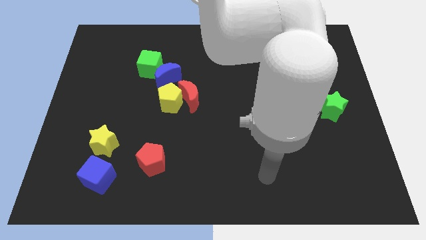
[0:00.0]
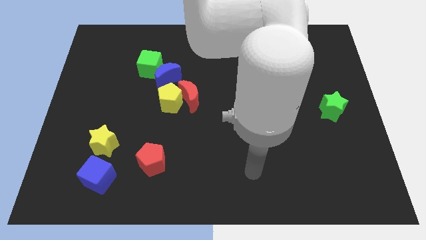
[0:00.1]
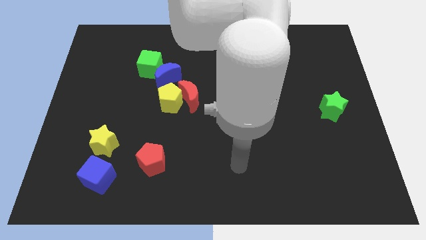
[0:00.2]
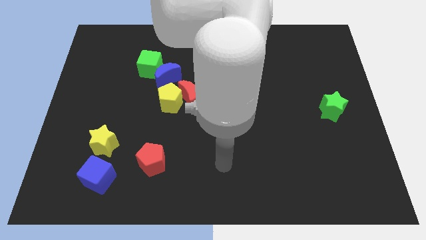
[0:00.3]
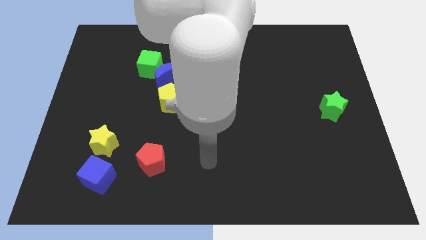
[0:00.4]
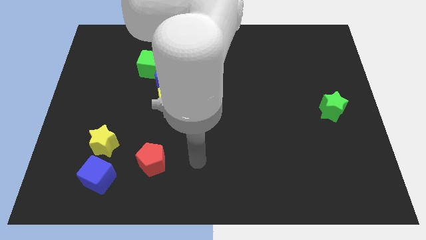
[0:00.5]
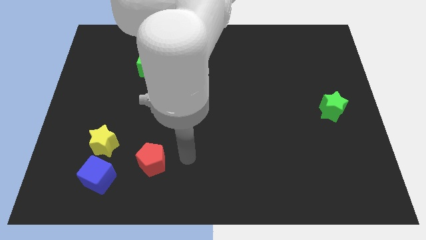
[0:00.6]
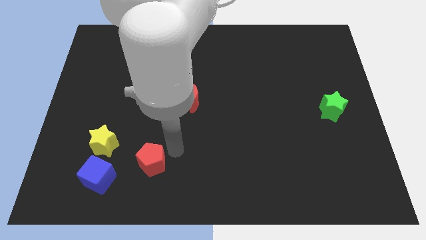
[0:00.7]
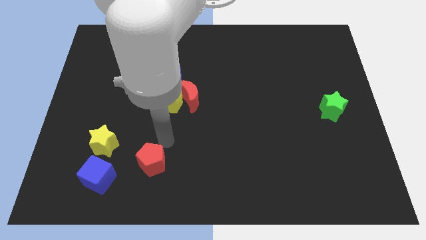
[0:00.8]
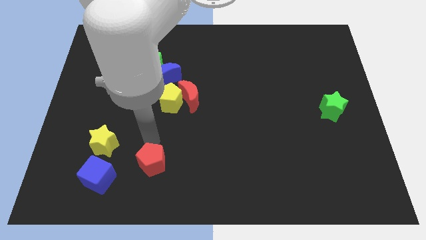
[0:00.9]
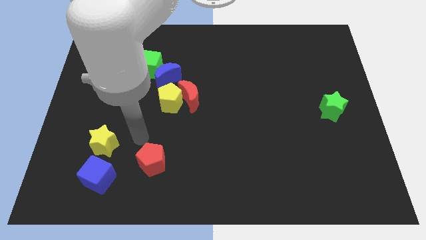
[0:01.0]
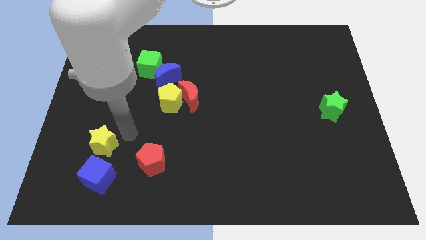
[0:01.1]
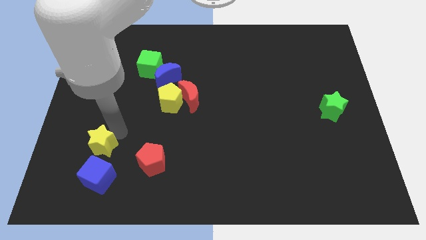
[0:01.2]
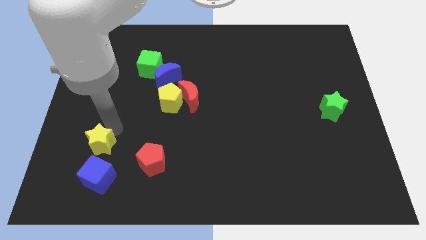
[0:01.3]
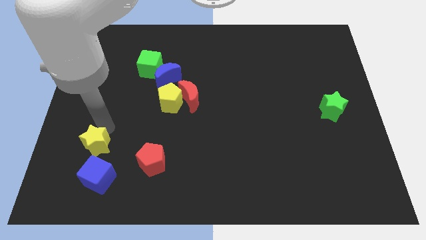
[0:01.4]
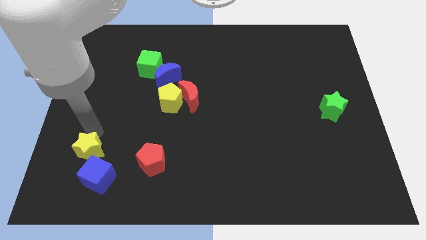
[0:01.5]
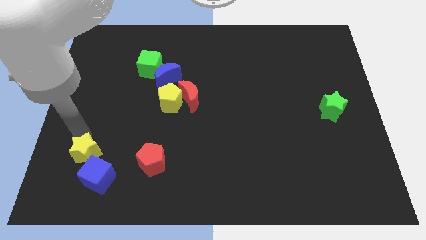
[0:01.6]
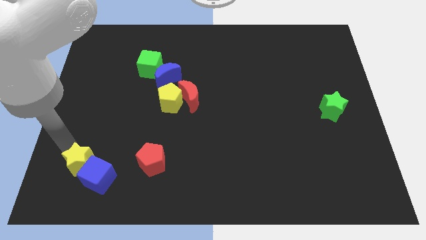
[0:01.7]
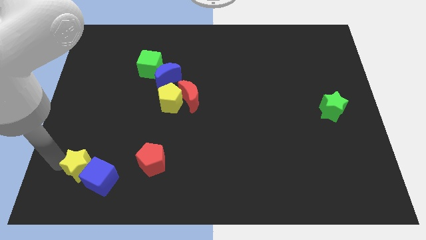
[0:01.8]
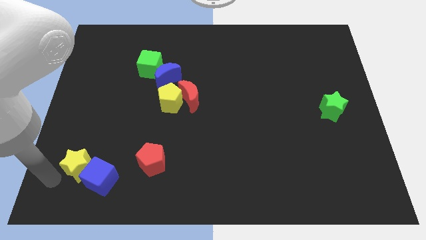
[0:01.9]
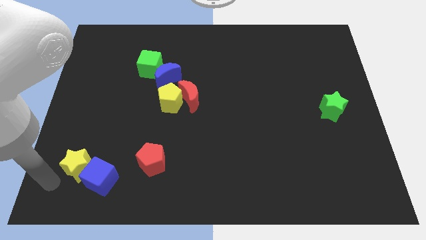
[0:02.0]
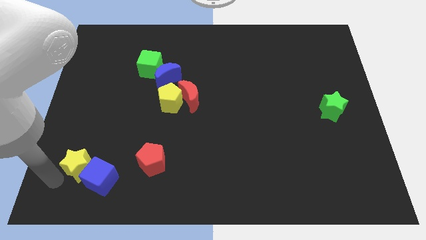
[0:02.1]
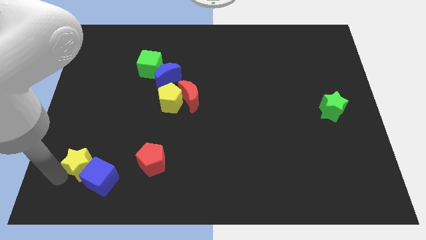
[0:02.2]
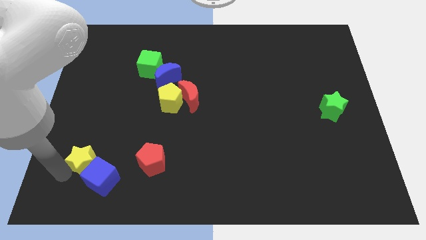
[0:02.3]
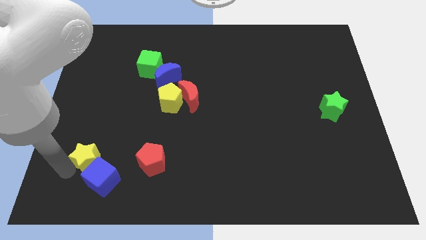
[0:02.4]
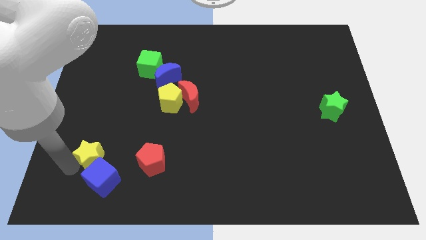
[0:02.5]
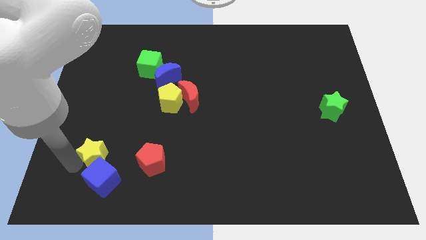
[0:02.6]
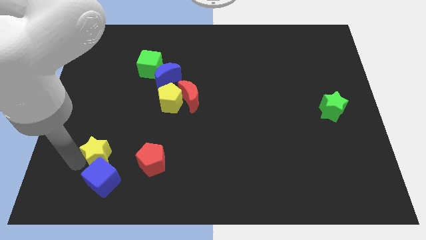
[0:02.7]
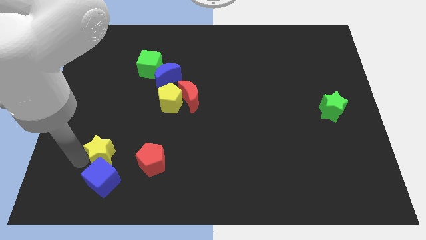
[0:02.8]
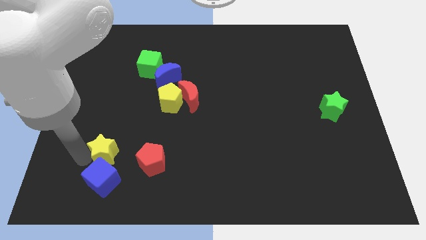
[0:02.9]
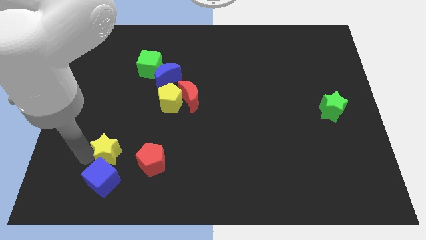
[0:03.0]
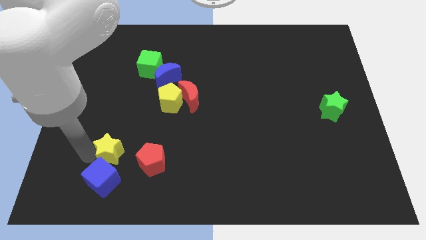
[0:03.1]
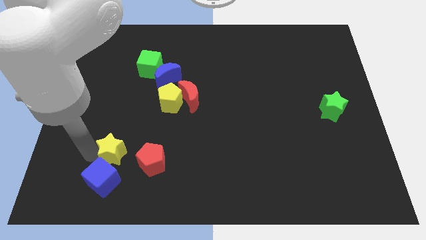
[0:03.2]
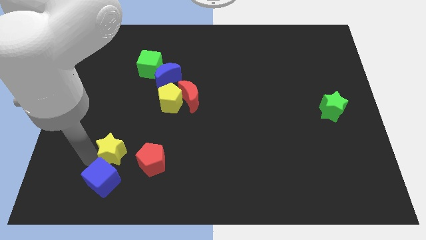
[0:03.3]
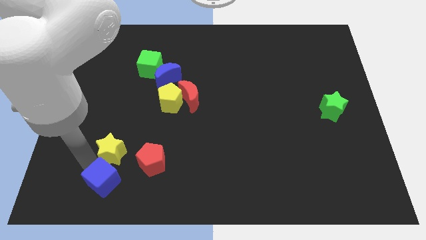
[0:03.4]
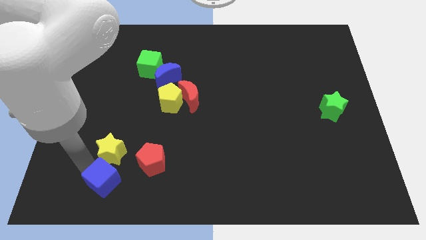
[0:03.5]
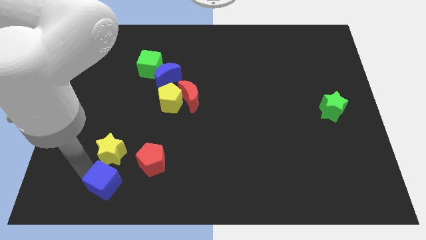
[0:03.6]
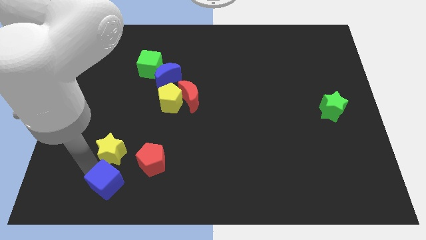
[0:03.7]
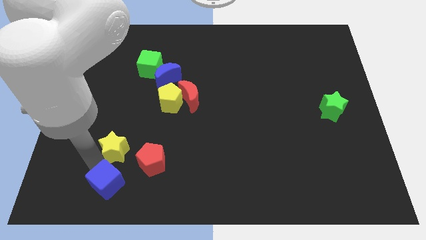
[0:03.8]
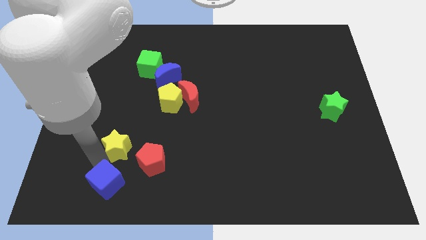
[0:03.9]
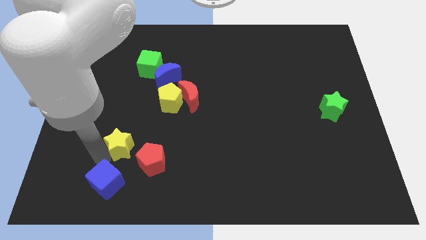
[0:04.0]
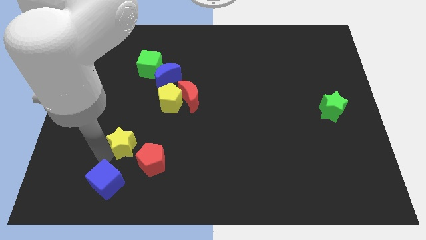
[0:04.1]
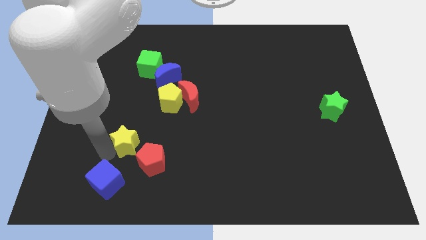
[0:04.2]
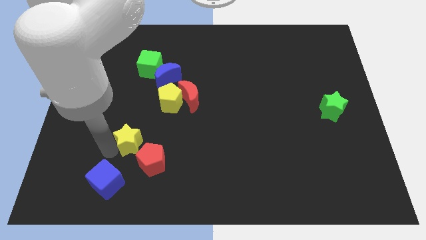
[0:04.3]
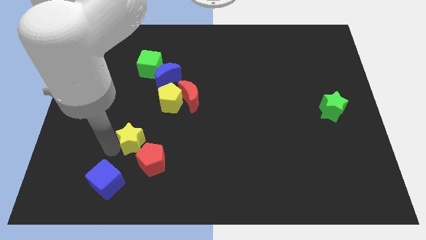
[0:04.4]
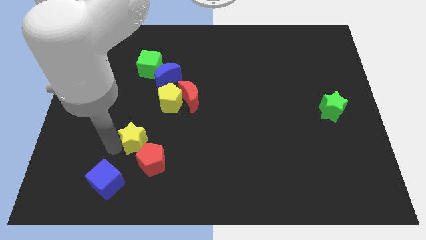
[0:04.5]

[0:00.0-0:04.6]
slightly slide the yellow star to the right

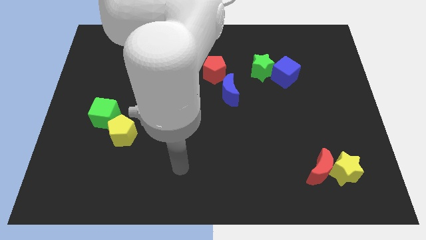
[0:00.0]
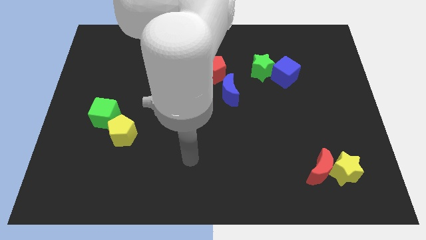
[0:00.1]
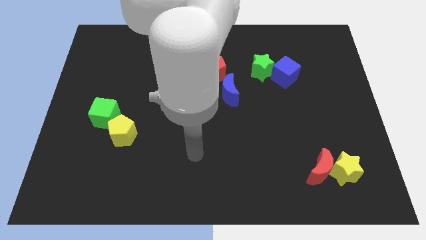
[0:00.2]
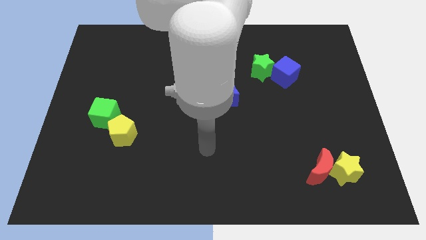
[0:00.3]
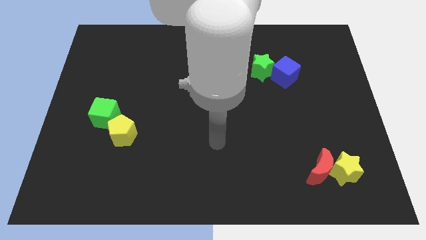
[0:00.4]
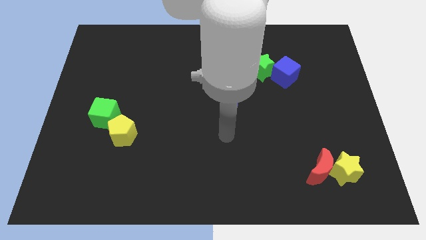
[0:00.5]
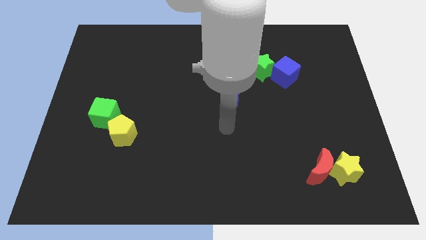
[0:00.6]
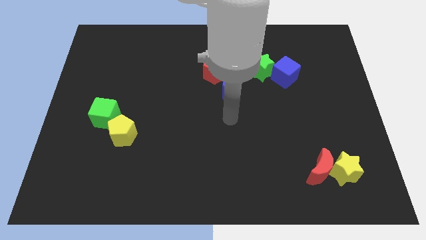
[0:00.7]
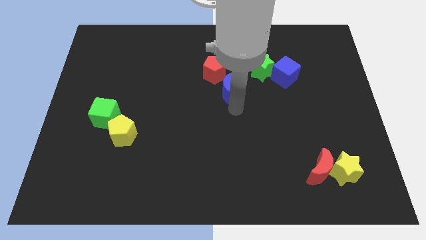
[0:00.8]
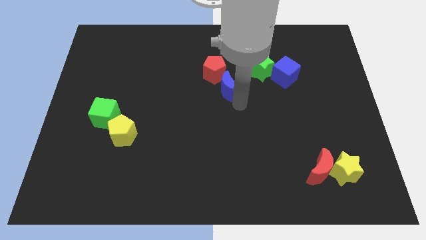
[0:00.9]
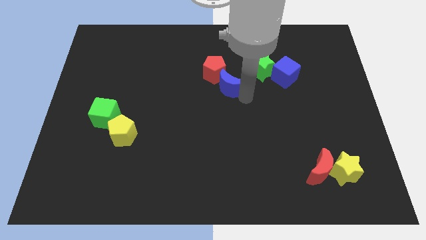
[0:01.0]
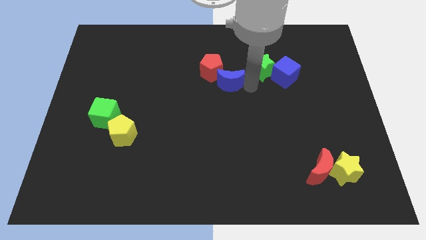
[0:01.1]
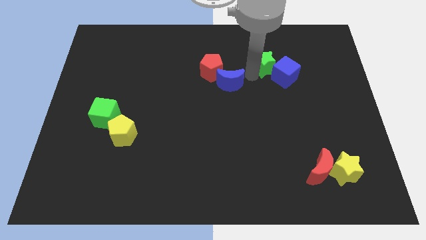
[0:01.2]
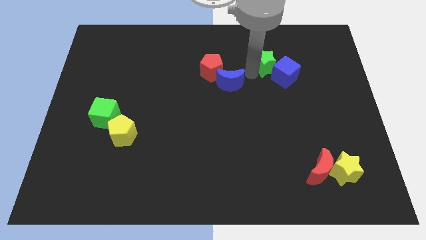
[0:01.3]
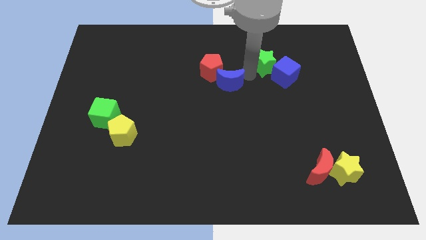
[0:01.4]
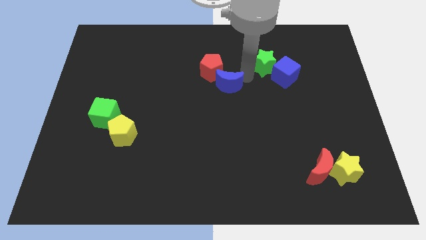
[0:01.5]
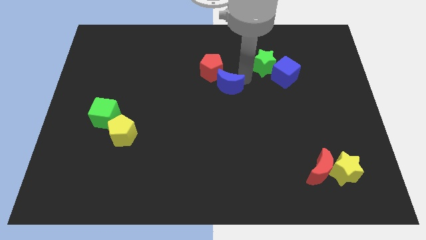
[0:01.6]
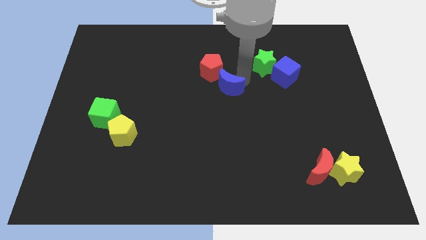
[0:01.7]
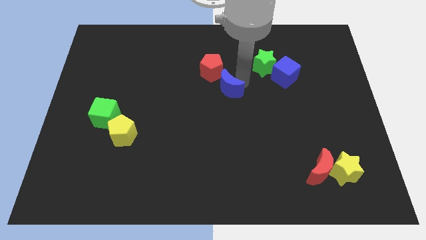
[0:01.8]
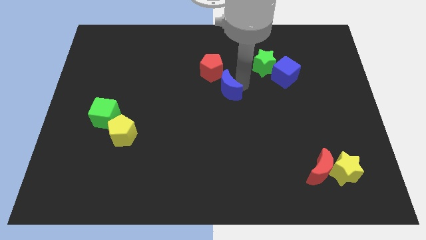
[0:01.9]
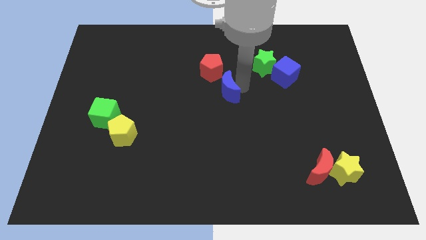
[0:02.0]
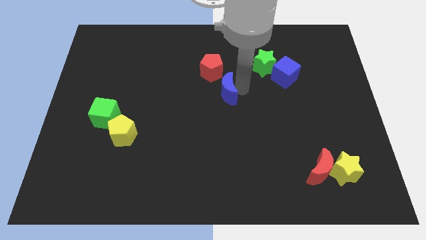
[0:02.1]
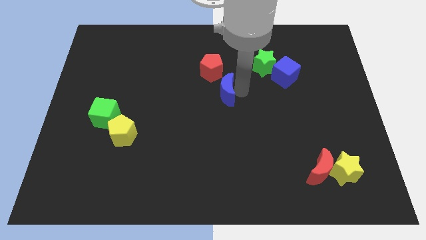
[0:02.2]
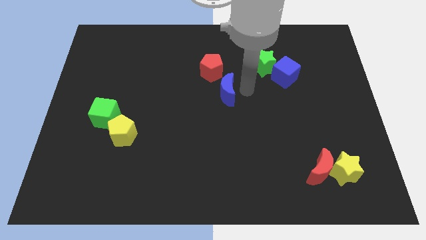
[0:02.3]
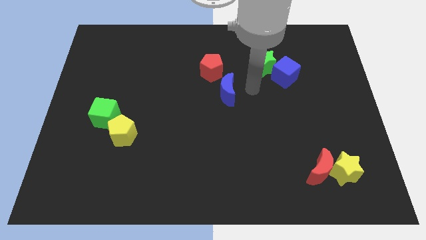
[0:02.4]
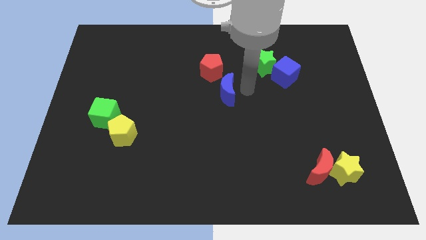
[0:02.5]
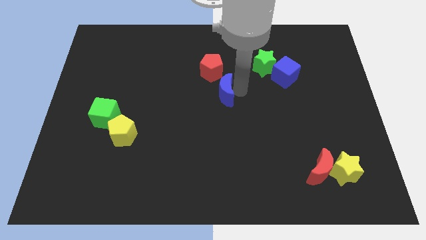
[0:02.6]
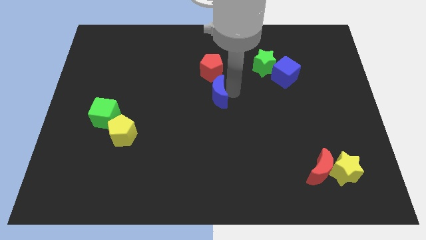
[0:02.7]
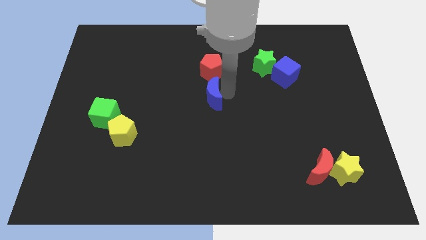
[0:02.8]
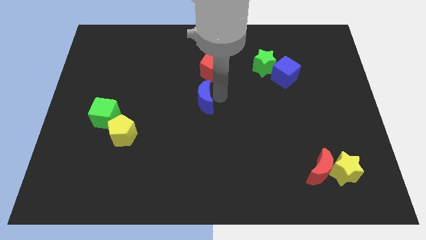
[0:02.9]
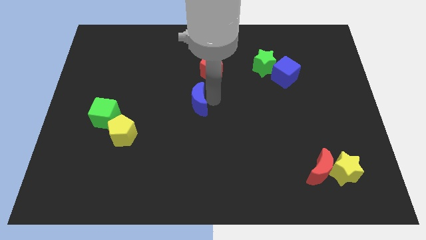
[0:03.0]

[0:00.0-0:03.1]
slightly slide the blue moon left

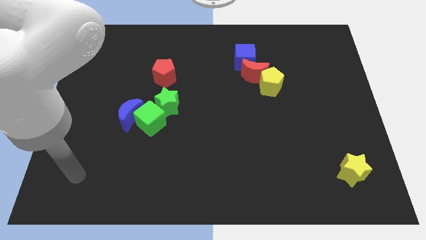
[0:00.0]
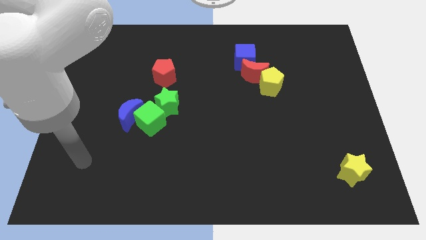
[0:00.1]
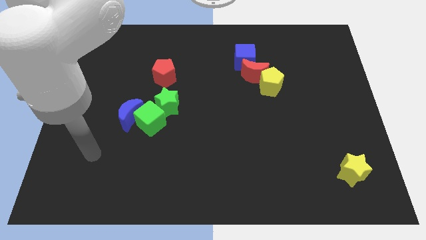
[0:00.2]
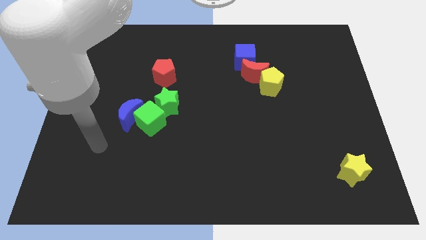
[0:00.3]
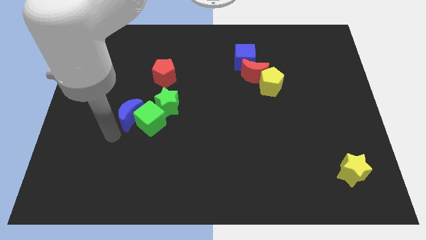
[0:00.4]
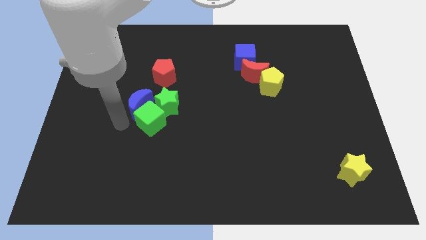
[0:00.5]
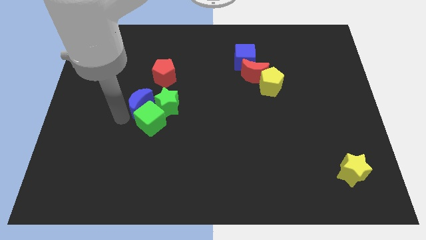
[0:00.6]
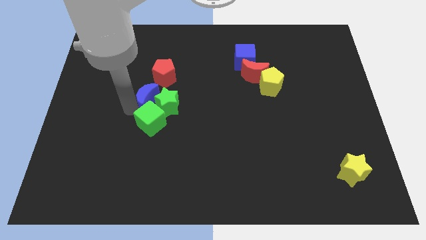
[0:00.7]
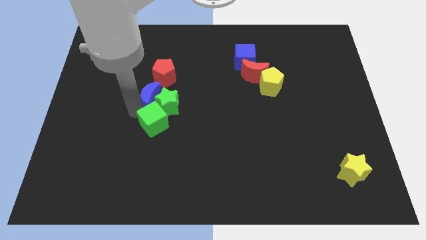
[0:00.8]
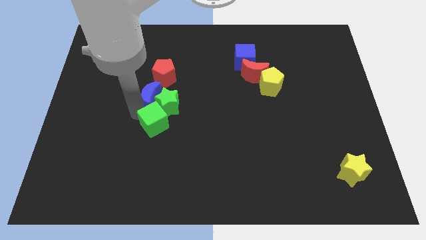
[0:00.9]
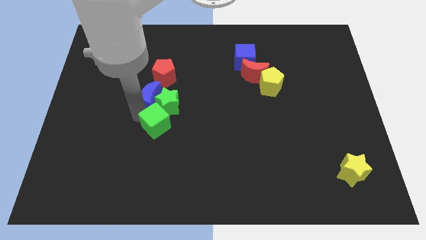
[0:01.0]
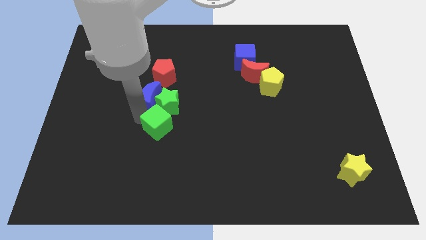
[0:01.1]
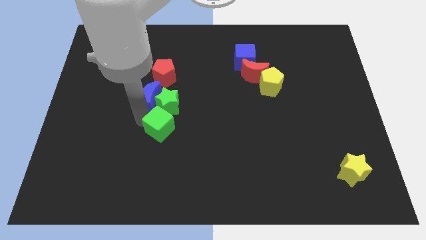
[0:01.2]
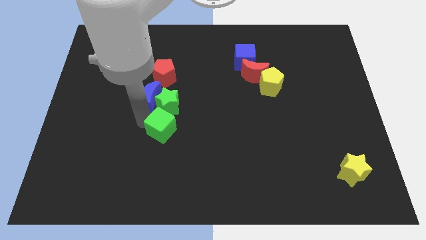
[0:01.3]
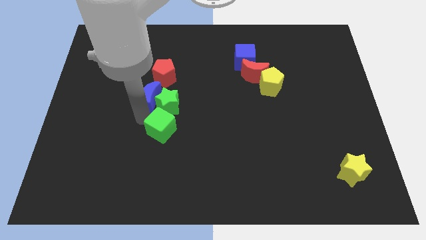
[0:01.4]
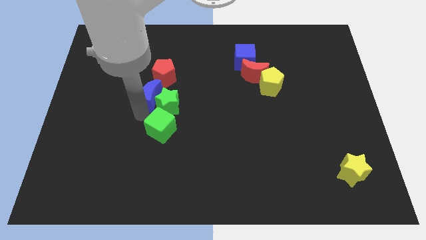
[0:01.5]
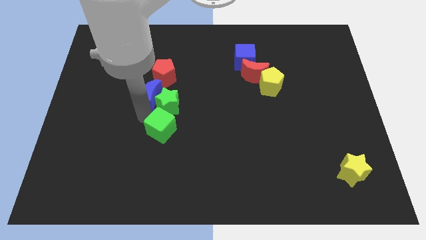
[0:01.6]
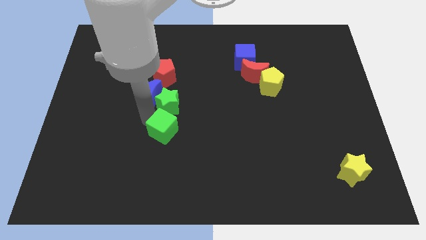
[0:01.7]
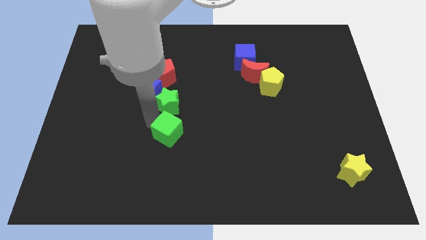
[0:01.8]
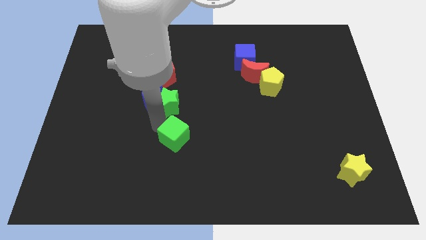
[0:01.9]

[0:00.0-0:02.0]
push the green cube somewhat diagonally down and to the right
